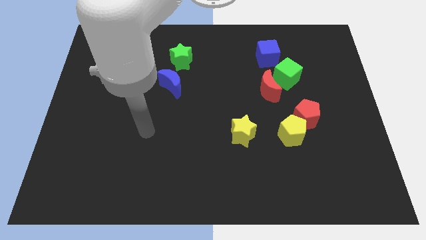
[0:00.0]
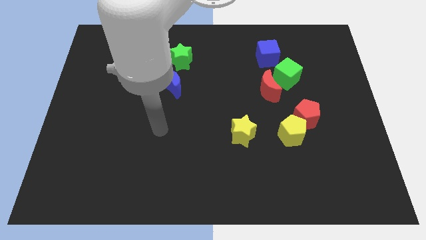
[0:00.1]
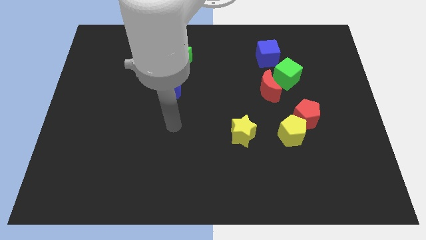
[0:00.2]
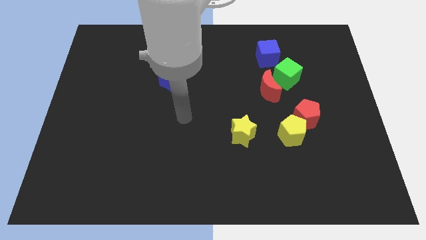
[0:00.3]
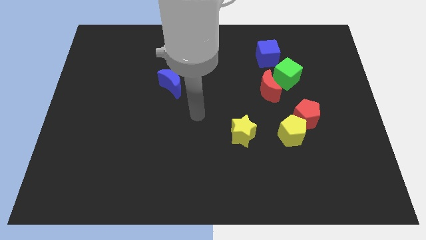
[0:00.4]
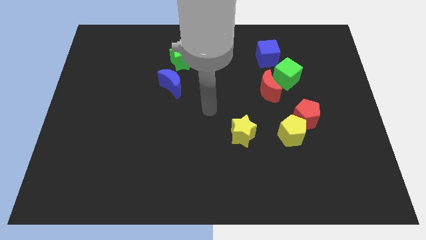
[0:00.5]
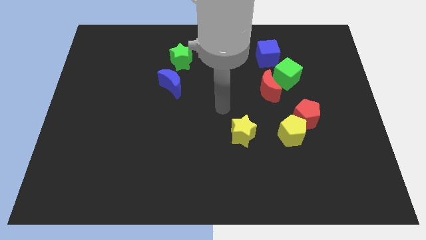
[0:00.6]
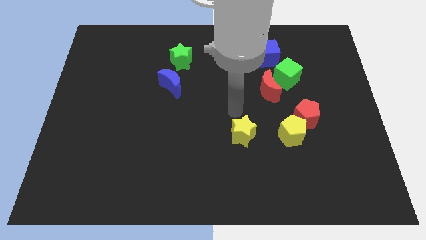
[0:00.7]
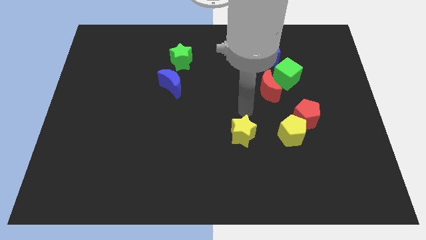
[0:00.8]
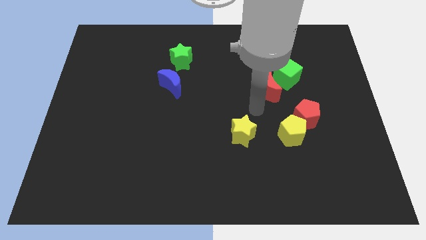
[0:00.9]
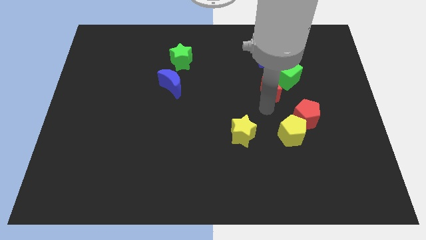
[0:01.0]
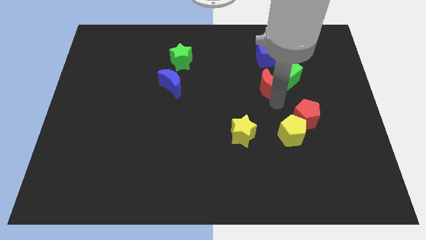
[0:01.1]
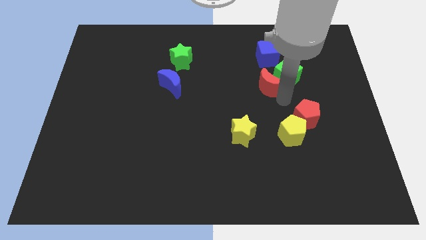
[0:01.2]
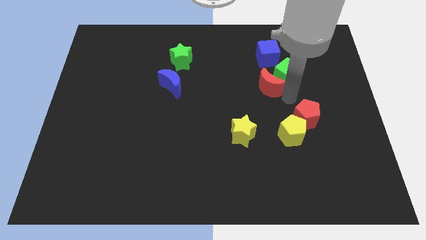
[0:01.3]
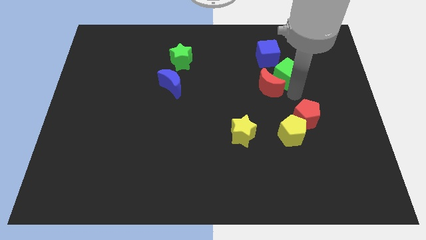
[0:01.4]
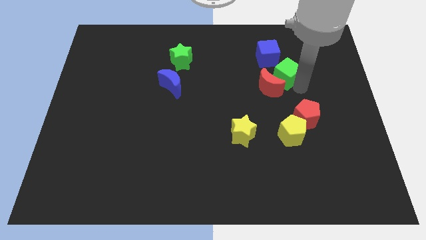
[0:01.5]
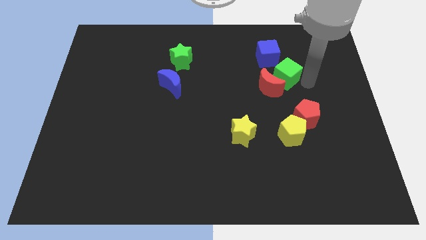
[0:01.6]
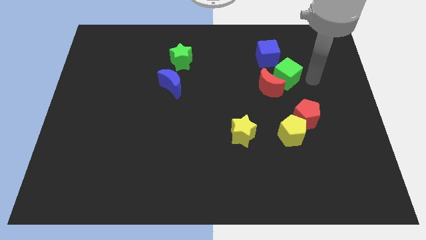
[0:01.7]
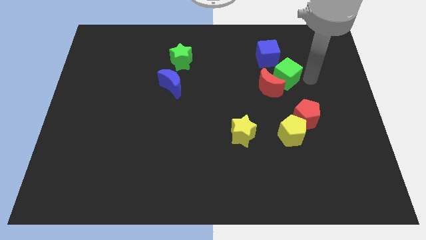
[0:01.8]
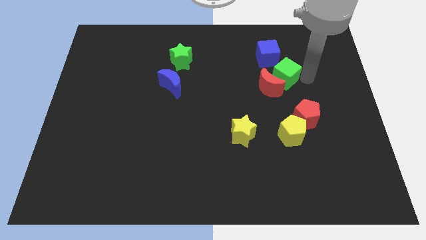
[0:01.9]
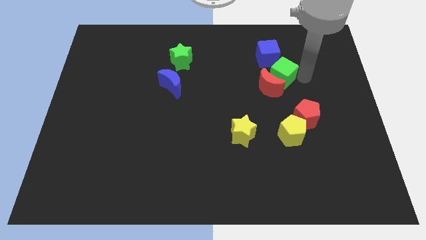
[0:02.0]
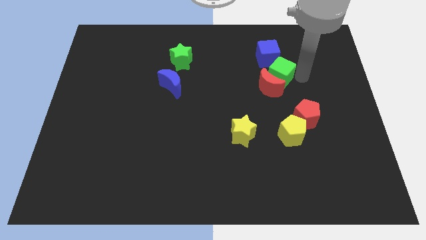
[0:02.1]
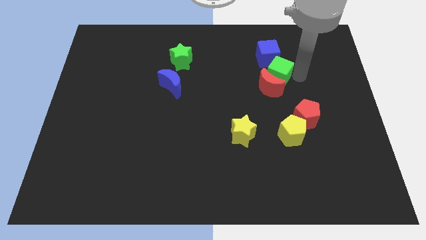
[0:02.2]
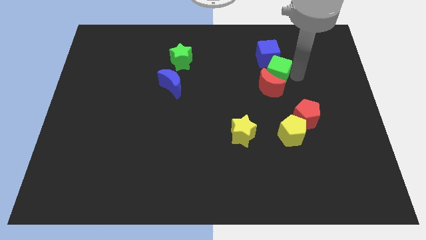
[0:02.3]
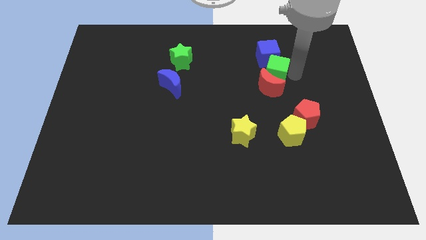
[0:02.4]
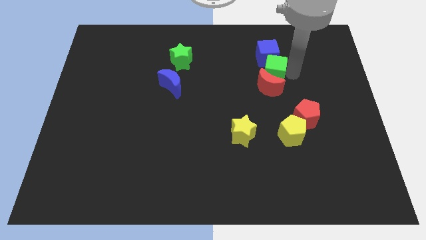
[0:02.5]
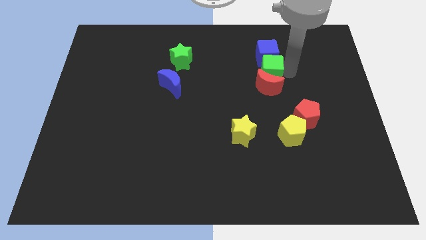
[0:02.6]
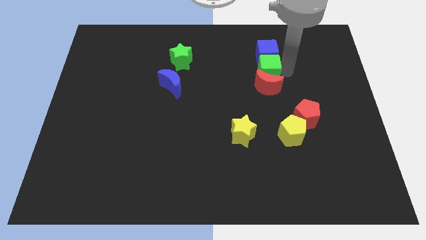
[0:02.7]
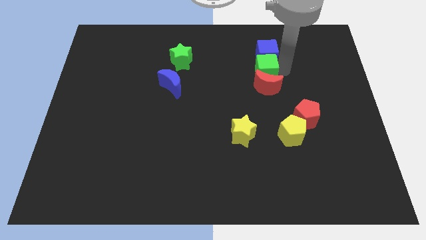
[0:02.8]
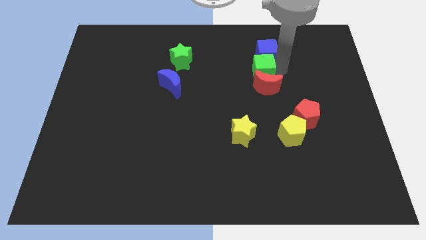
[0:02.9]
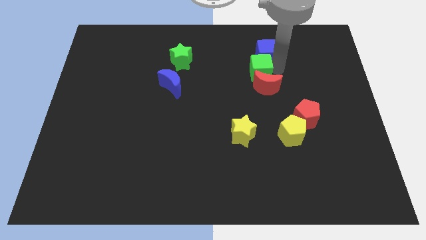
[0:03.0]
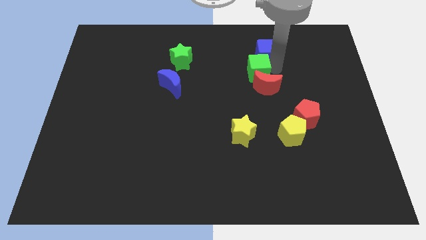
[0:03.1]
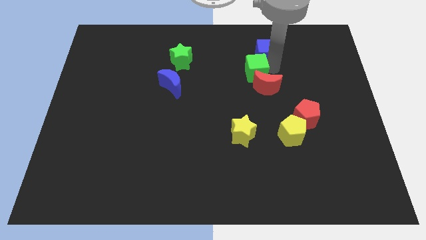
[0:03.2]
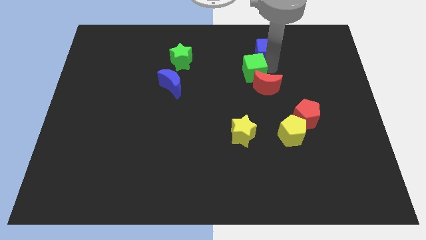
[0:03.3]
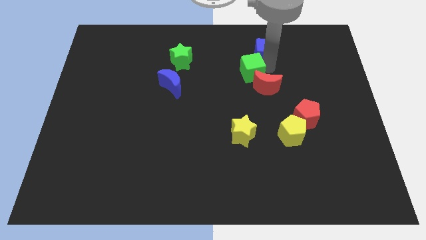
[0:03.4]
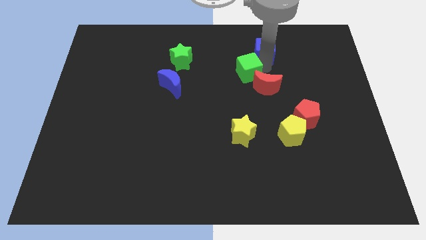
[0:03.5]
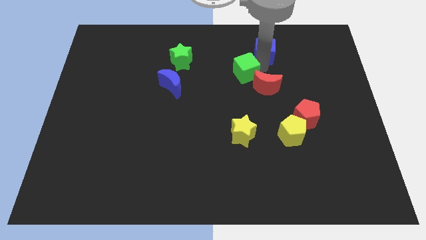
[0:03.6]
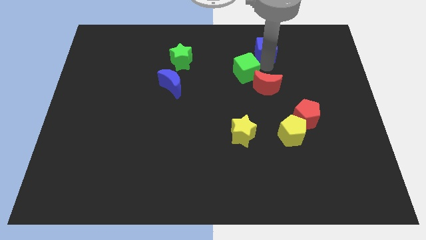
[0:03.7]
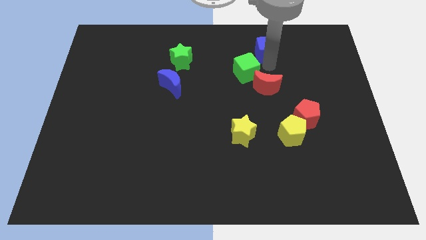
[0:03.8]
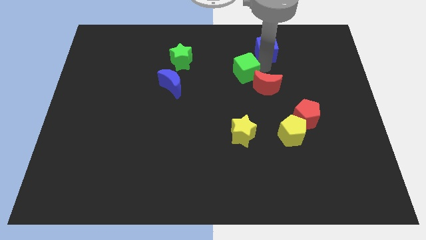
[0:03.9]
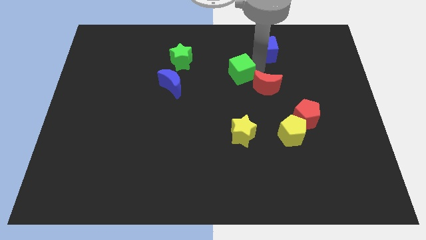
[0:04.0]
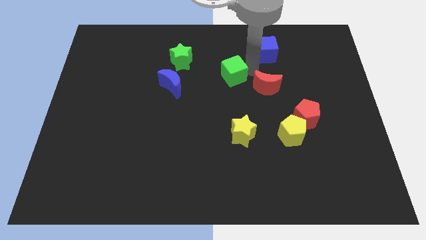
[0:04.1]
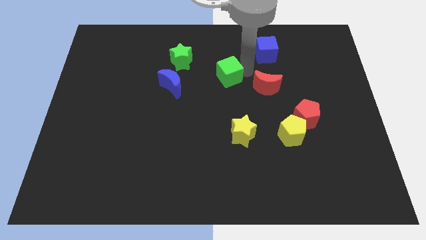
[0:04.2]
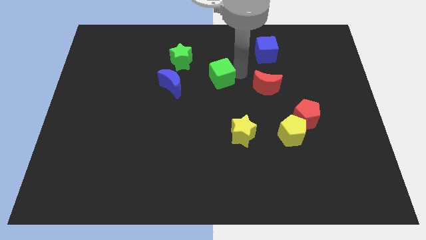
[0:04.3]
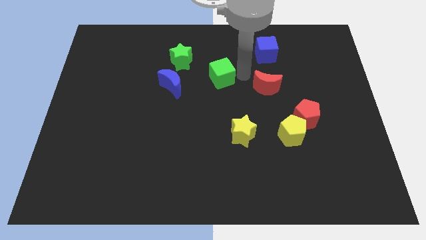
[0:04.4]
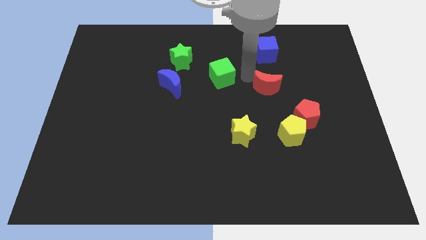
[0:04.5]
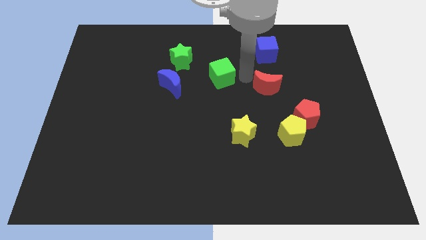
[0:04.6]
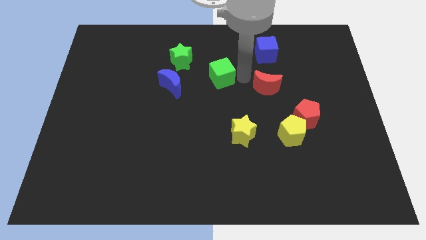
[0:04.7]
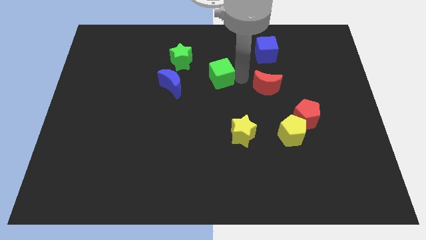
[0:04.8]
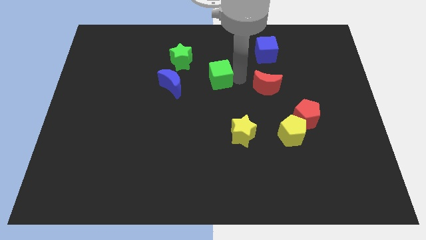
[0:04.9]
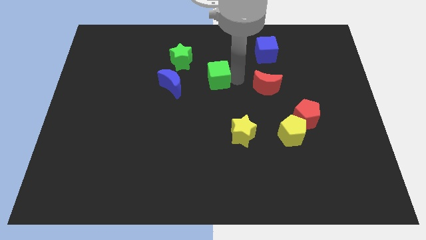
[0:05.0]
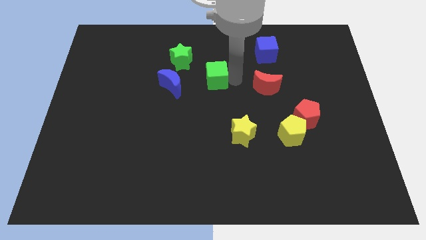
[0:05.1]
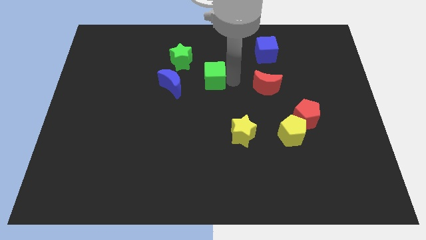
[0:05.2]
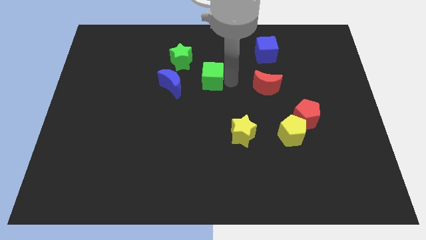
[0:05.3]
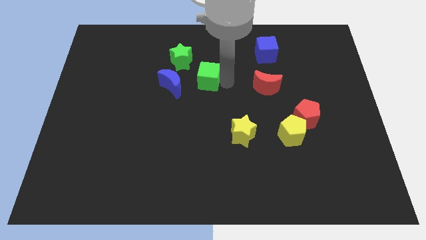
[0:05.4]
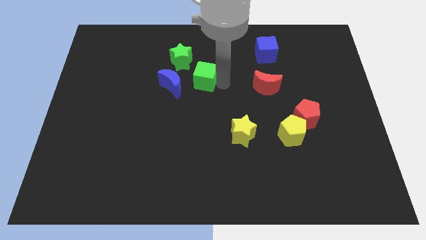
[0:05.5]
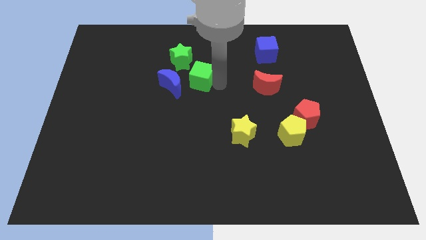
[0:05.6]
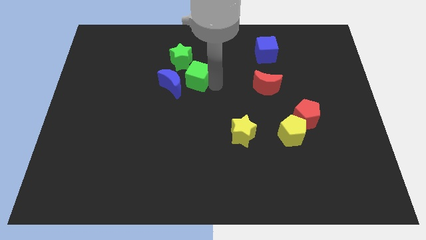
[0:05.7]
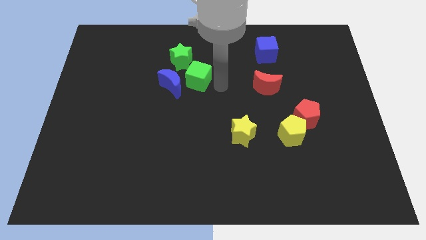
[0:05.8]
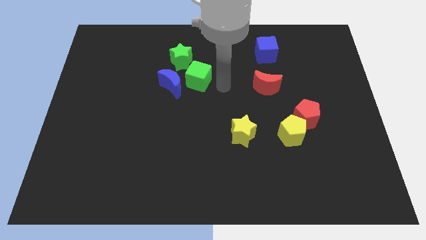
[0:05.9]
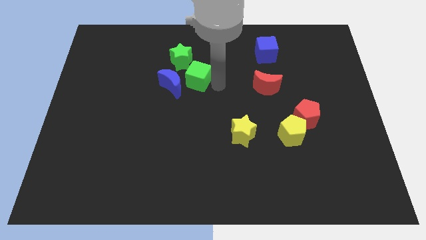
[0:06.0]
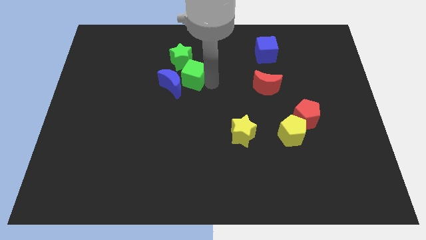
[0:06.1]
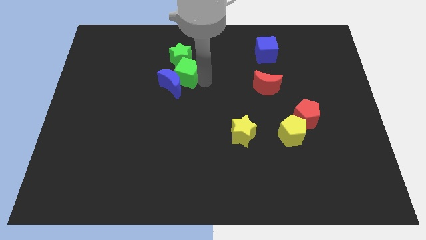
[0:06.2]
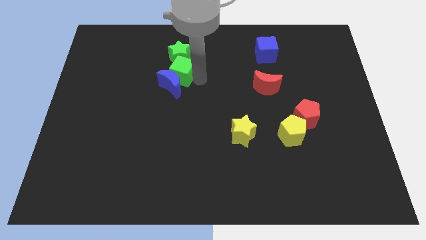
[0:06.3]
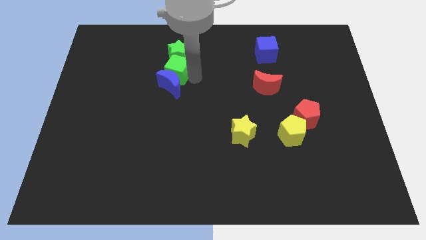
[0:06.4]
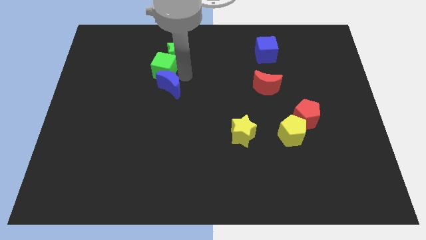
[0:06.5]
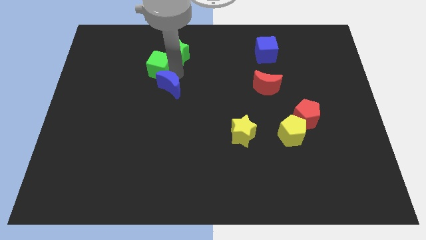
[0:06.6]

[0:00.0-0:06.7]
push the green cube to the left of the green star

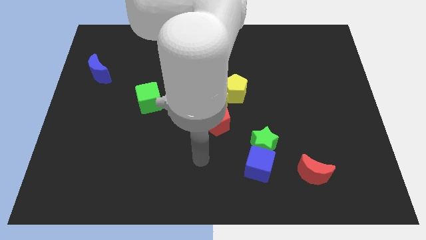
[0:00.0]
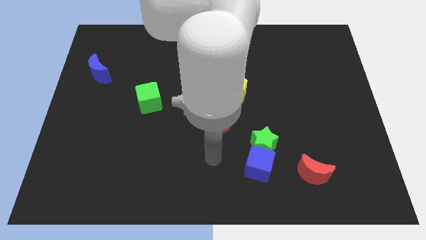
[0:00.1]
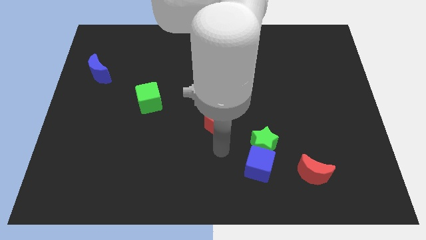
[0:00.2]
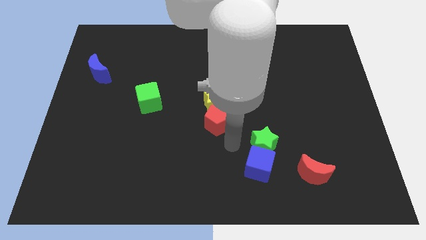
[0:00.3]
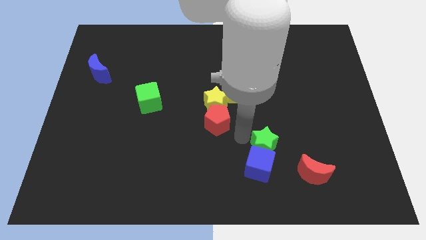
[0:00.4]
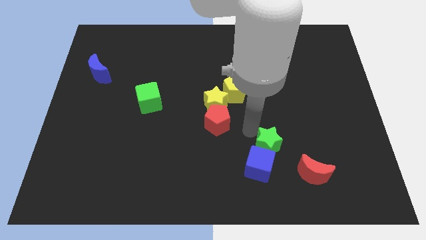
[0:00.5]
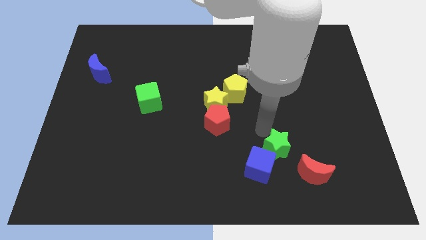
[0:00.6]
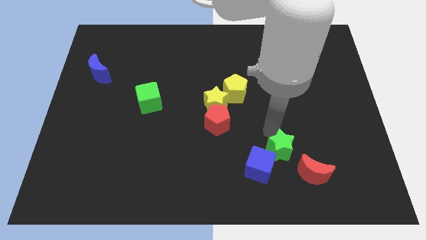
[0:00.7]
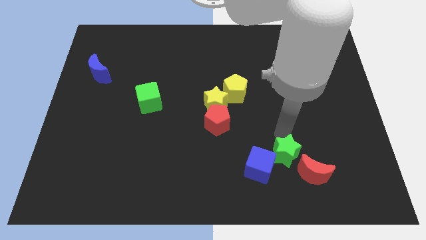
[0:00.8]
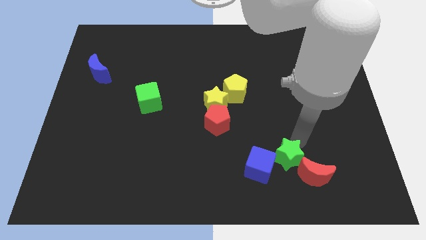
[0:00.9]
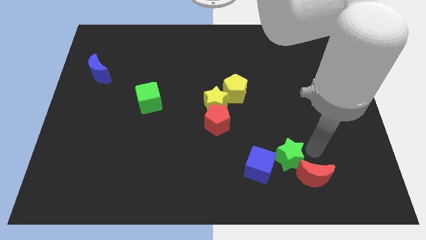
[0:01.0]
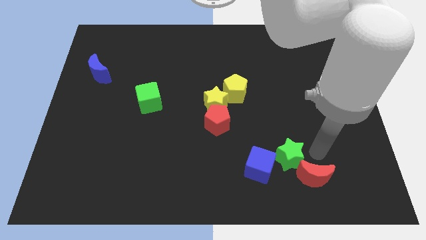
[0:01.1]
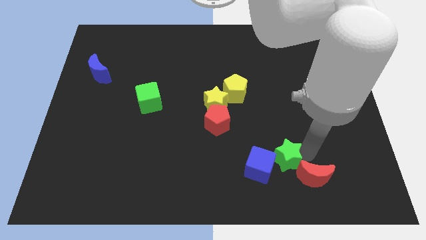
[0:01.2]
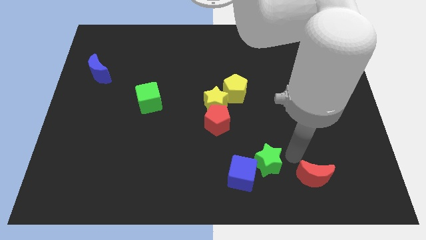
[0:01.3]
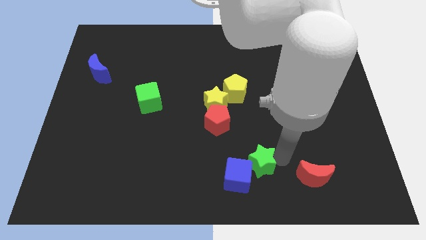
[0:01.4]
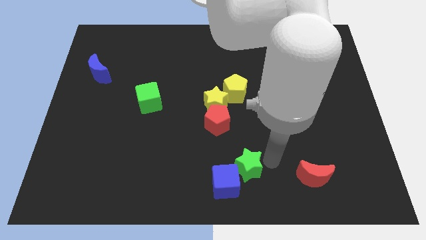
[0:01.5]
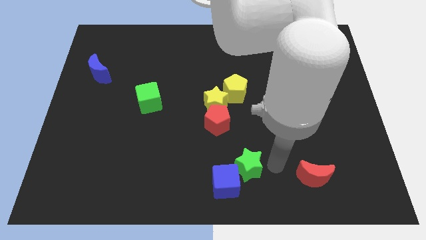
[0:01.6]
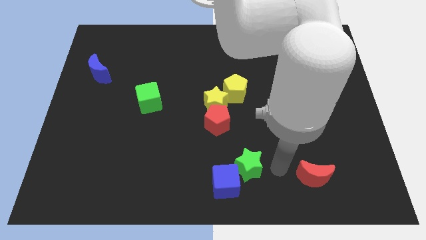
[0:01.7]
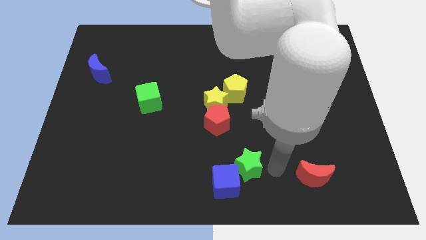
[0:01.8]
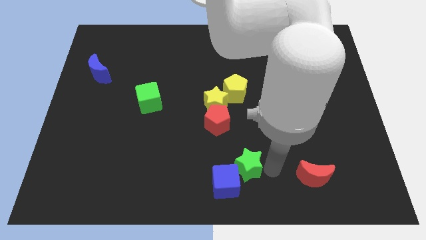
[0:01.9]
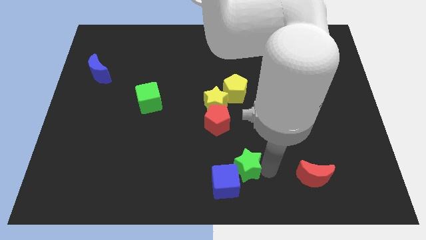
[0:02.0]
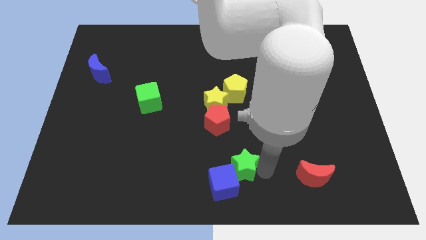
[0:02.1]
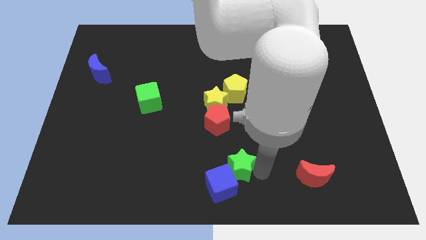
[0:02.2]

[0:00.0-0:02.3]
put the green star below the red pentagon
